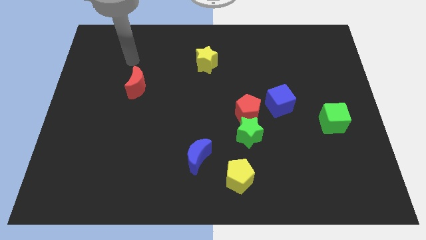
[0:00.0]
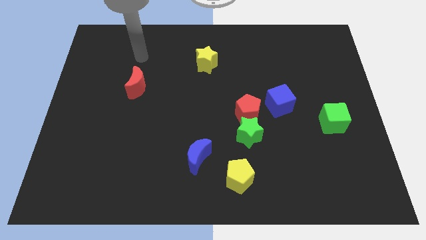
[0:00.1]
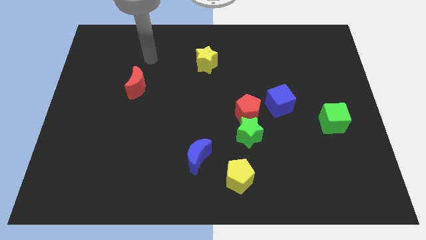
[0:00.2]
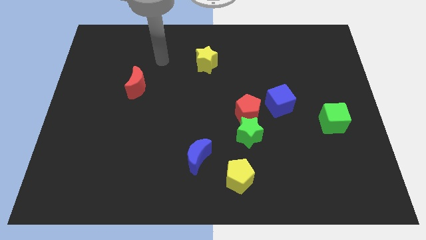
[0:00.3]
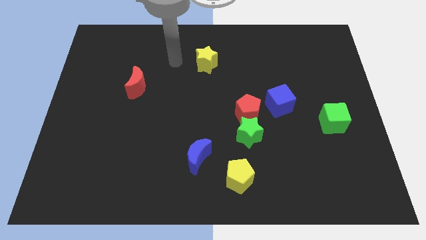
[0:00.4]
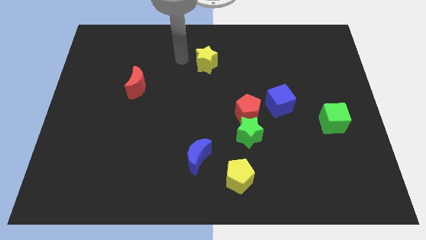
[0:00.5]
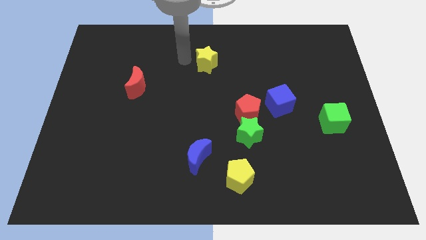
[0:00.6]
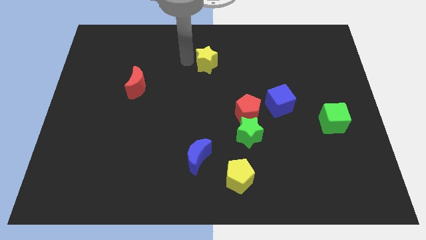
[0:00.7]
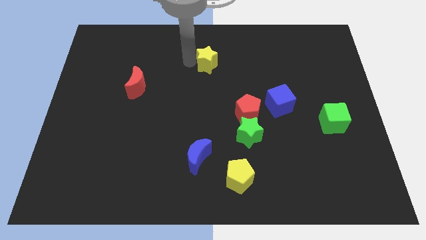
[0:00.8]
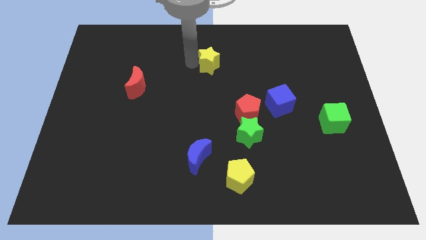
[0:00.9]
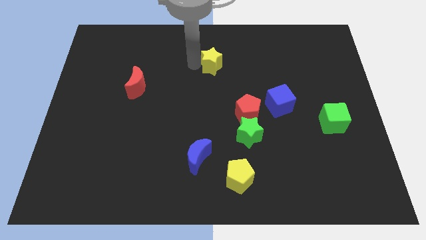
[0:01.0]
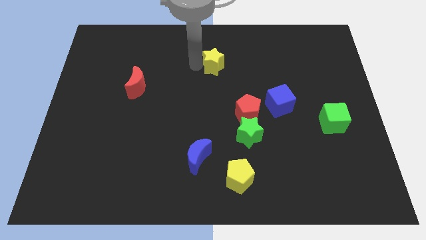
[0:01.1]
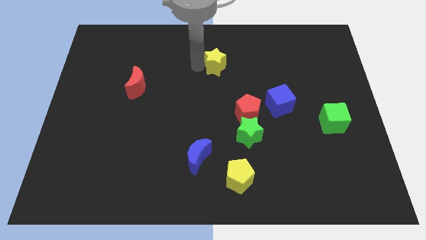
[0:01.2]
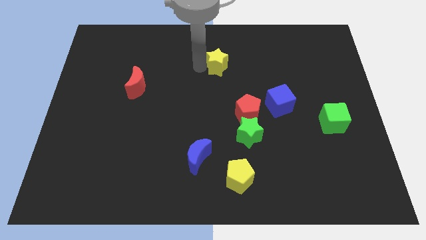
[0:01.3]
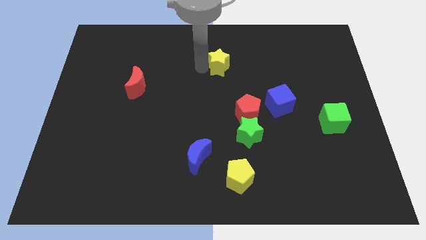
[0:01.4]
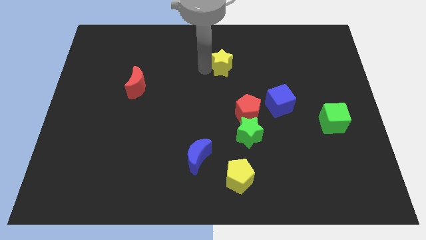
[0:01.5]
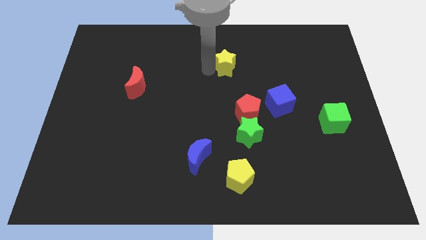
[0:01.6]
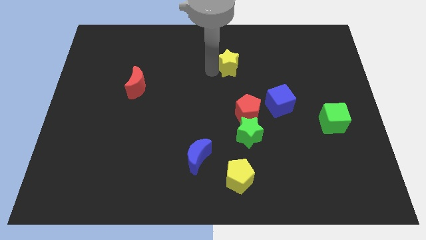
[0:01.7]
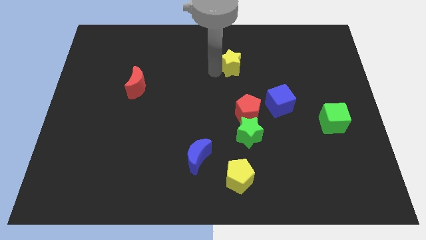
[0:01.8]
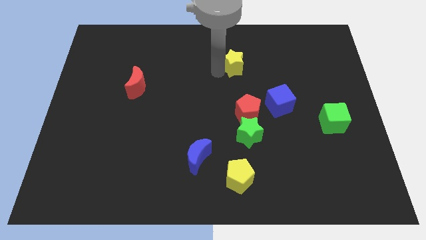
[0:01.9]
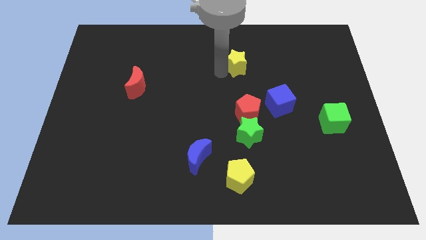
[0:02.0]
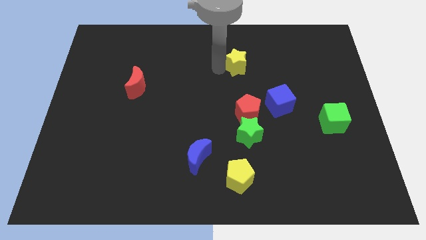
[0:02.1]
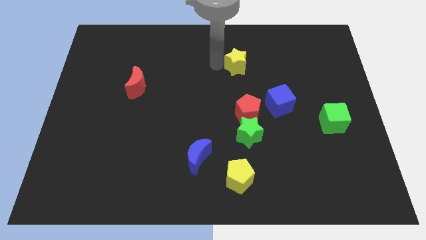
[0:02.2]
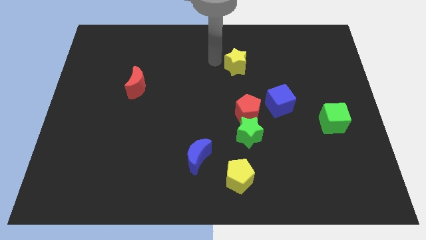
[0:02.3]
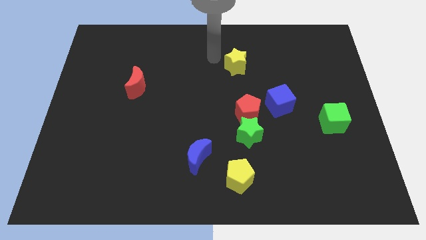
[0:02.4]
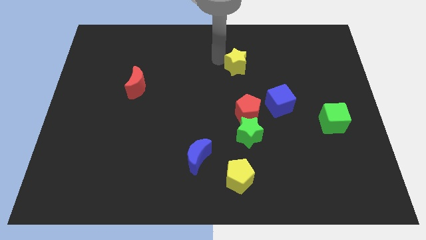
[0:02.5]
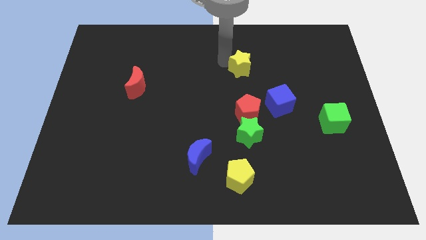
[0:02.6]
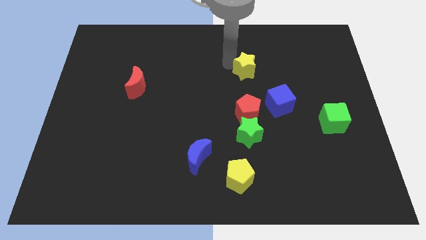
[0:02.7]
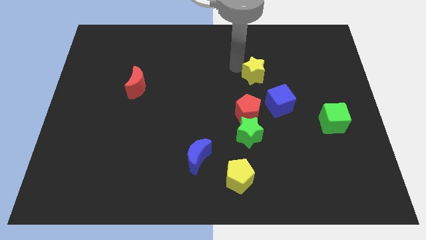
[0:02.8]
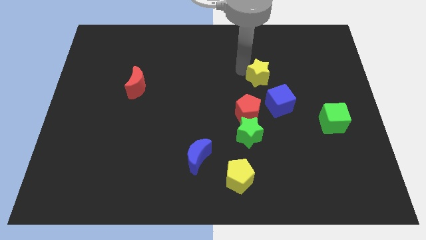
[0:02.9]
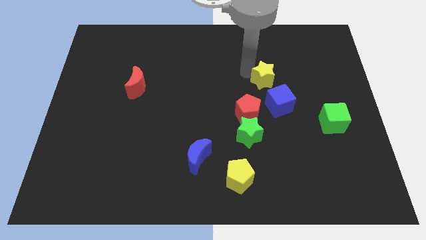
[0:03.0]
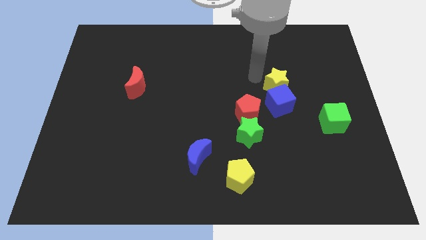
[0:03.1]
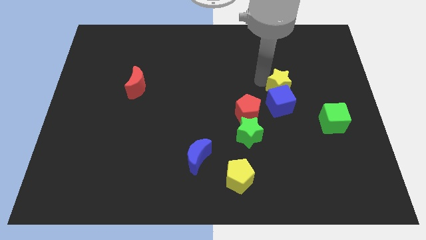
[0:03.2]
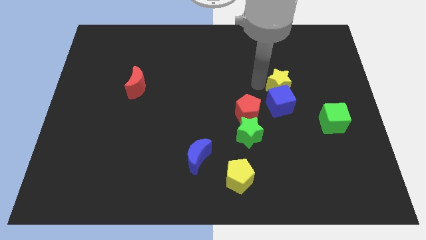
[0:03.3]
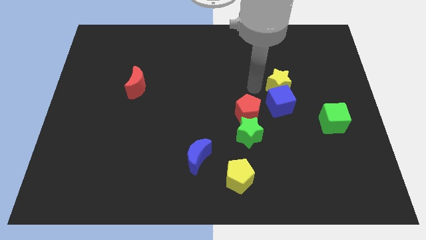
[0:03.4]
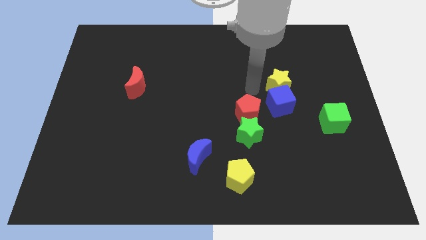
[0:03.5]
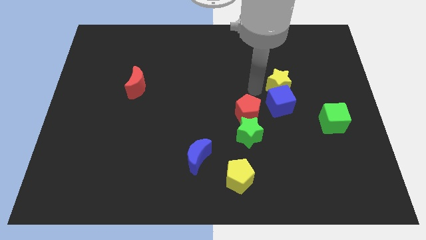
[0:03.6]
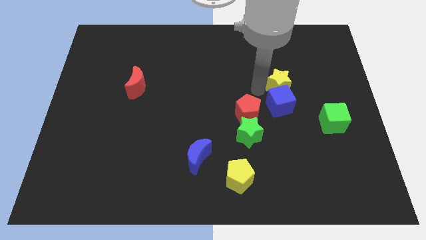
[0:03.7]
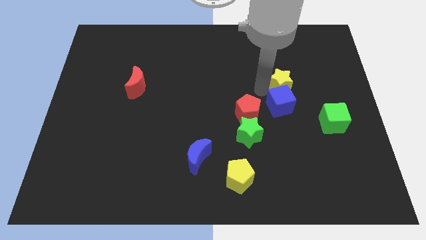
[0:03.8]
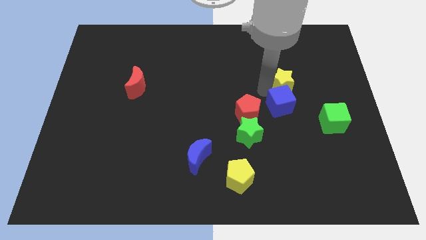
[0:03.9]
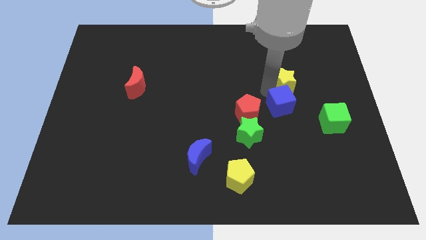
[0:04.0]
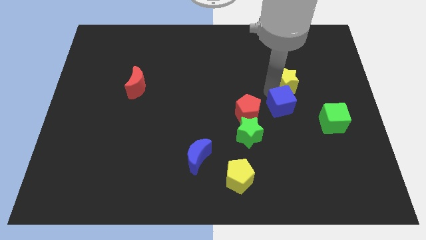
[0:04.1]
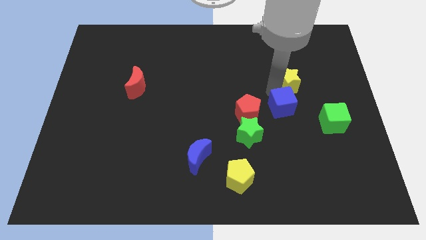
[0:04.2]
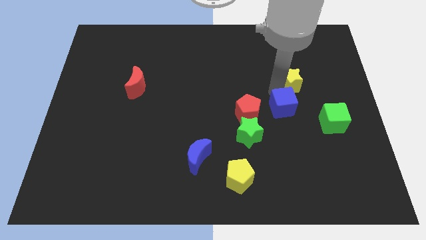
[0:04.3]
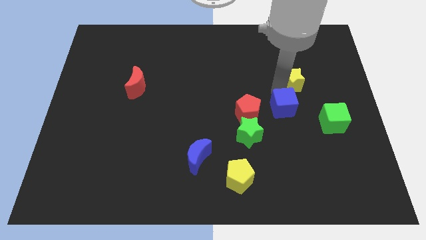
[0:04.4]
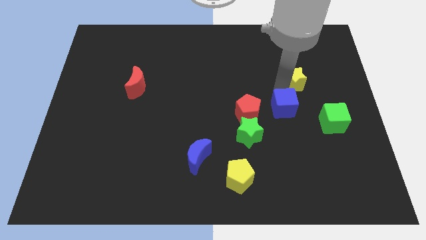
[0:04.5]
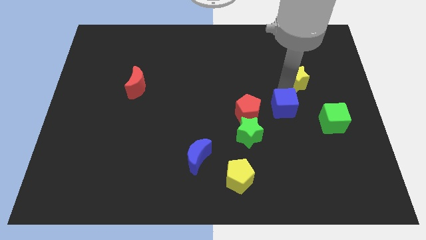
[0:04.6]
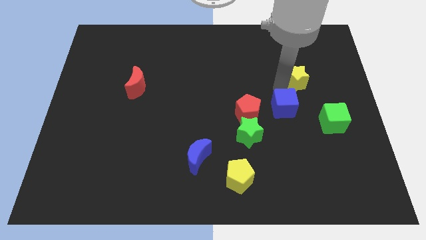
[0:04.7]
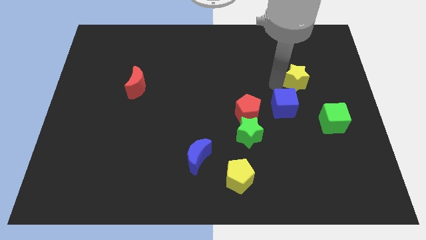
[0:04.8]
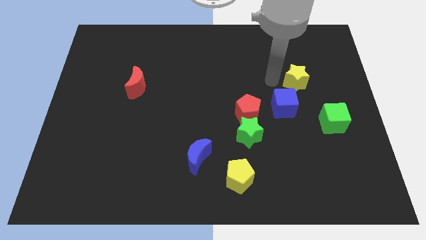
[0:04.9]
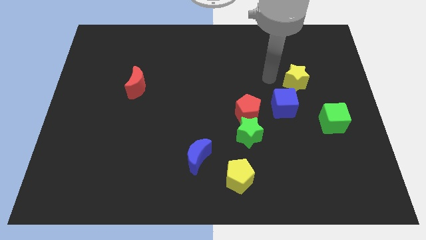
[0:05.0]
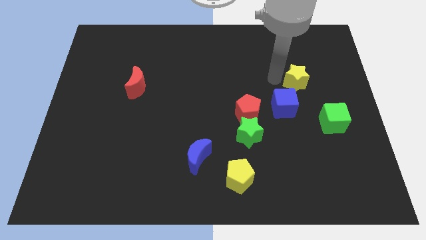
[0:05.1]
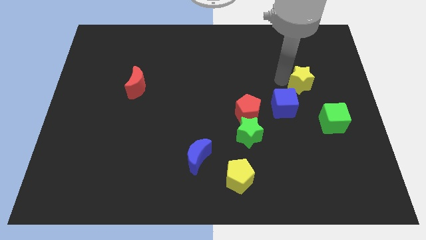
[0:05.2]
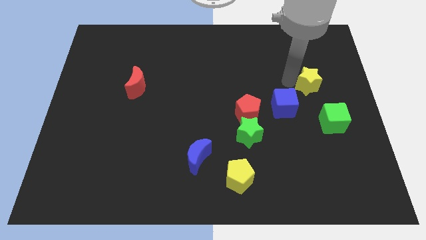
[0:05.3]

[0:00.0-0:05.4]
put the yellow star above the green cube

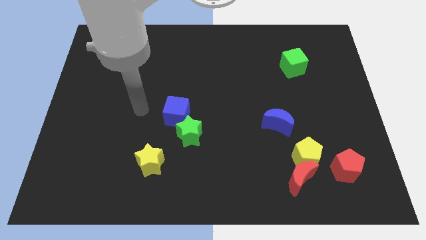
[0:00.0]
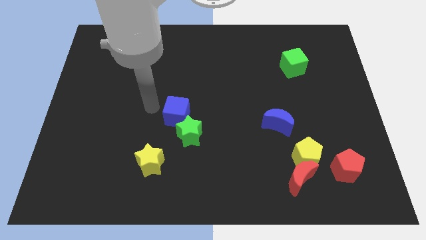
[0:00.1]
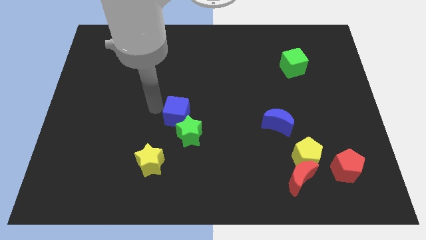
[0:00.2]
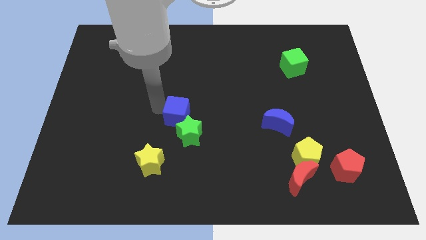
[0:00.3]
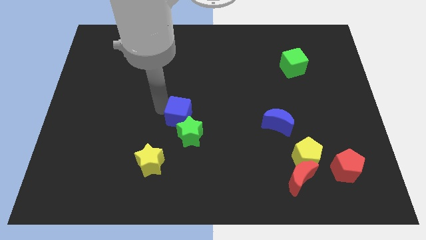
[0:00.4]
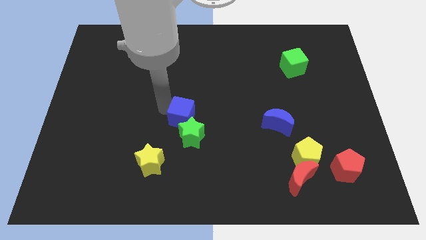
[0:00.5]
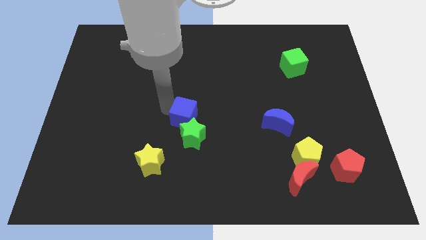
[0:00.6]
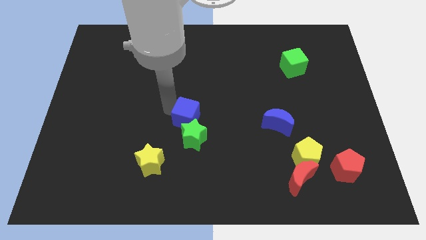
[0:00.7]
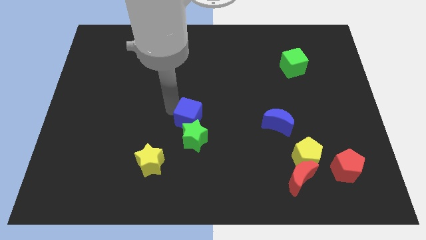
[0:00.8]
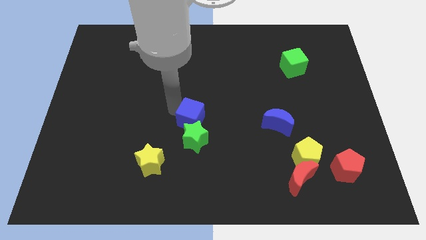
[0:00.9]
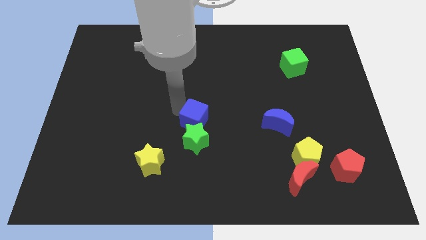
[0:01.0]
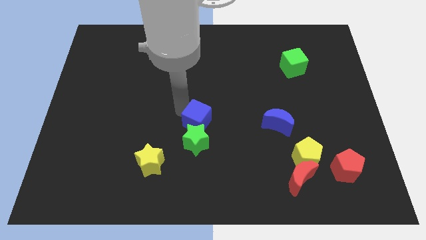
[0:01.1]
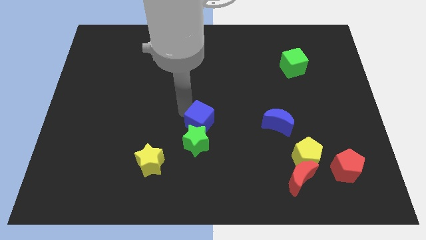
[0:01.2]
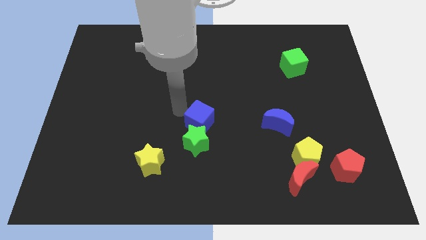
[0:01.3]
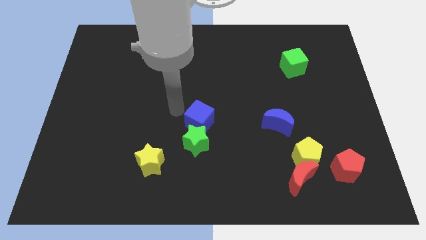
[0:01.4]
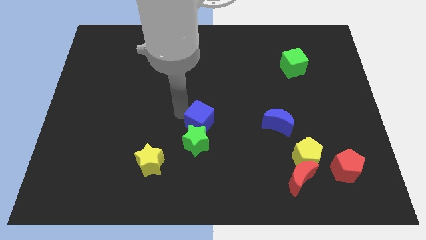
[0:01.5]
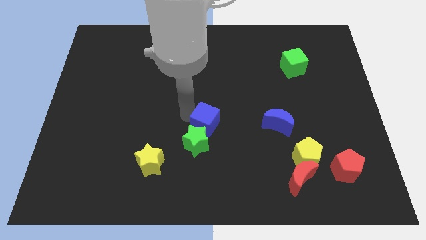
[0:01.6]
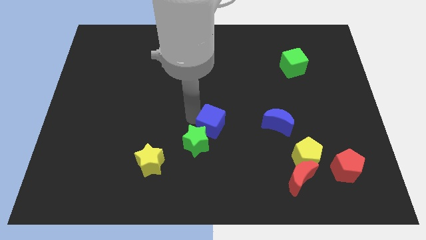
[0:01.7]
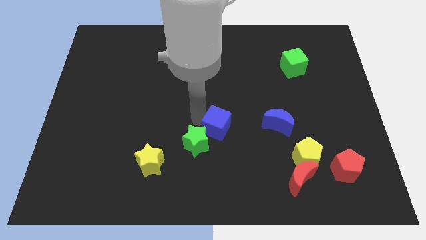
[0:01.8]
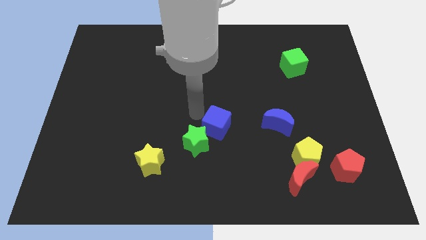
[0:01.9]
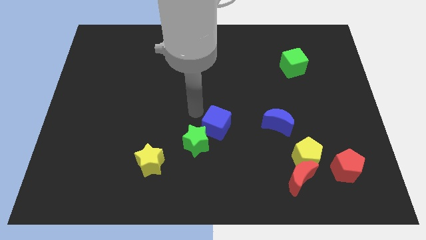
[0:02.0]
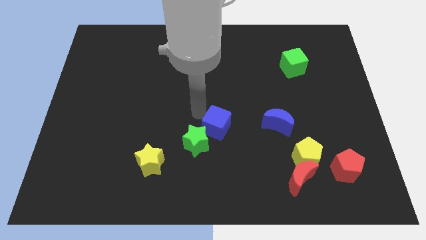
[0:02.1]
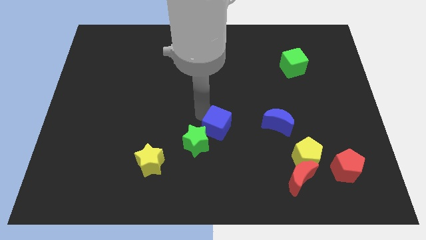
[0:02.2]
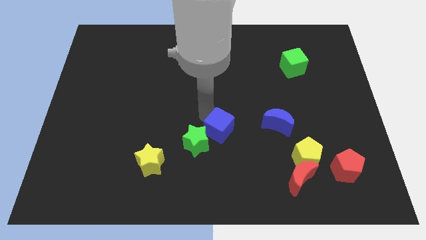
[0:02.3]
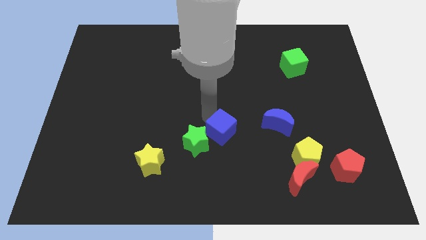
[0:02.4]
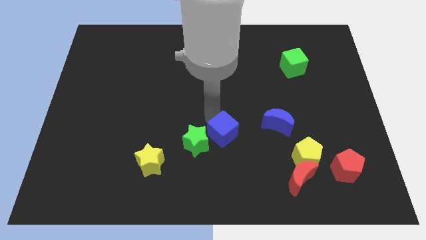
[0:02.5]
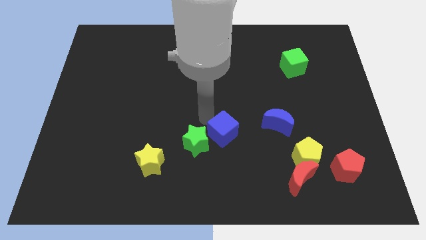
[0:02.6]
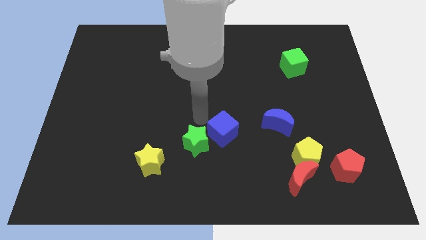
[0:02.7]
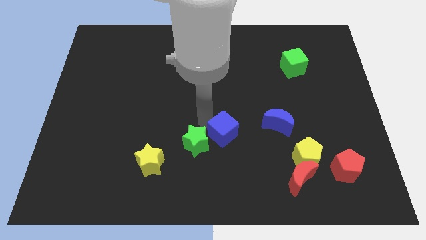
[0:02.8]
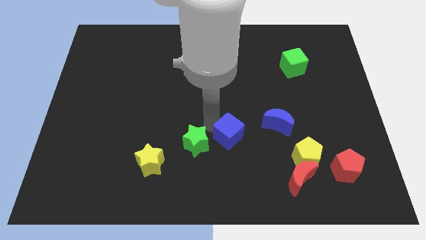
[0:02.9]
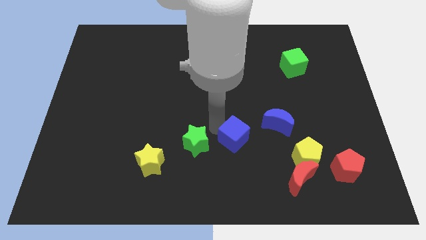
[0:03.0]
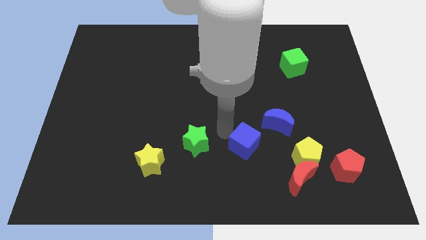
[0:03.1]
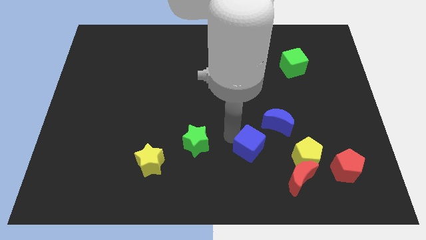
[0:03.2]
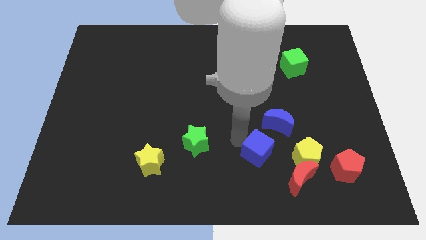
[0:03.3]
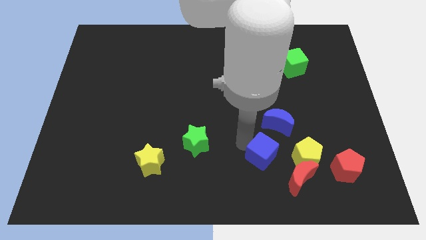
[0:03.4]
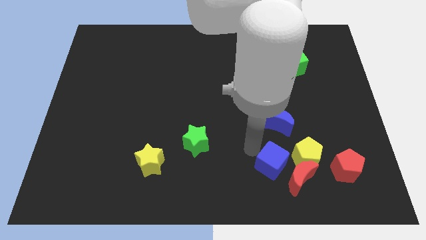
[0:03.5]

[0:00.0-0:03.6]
move the blue cube to the left of the red pentagon
